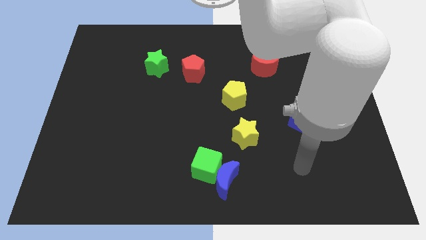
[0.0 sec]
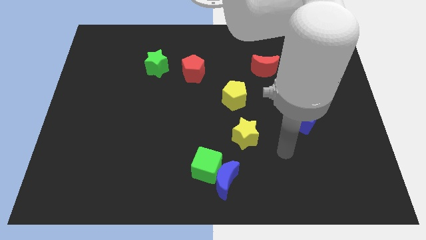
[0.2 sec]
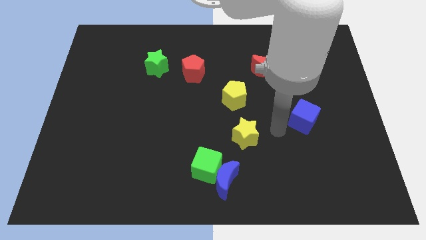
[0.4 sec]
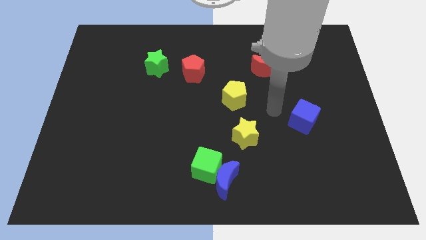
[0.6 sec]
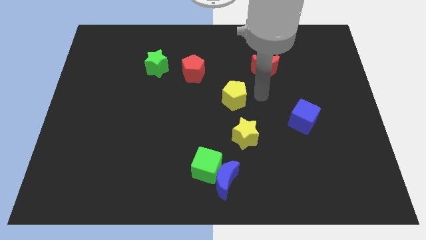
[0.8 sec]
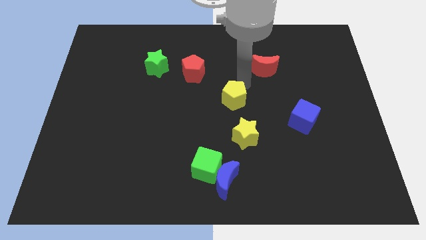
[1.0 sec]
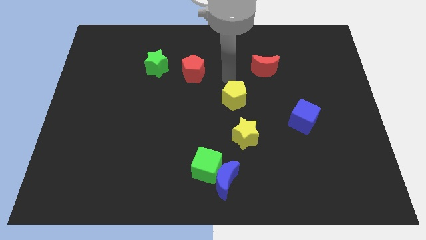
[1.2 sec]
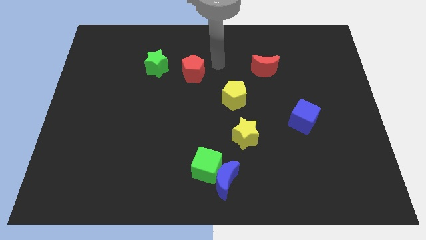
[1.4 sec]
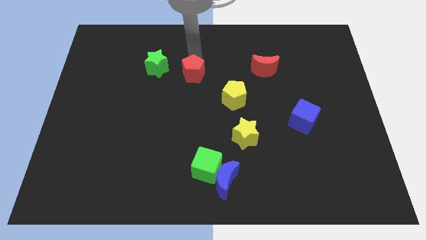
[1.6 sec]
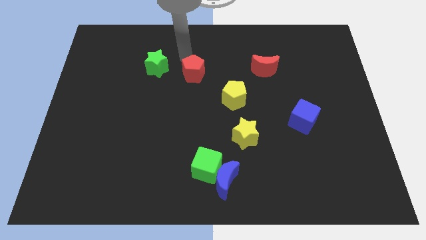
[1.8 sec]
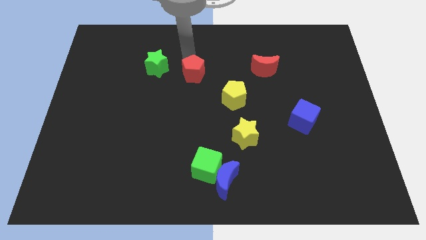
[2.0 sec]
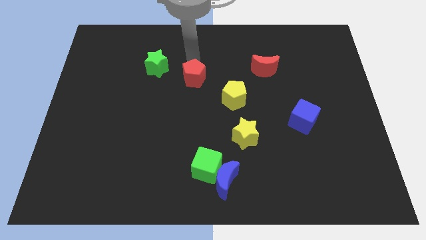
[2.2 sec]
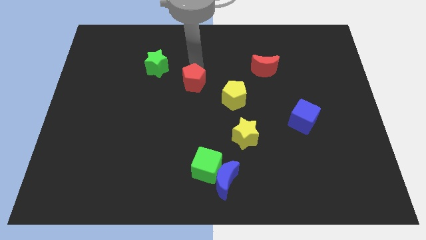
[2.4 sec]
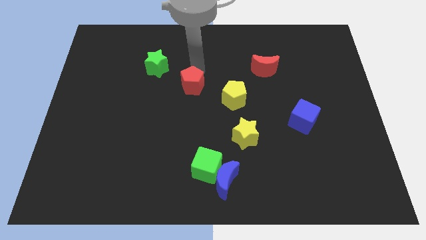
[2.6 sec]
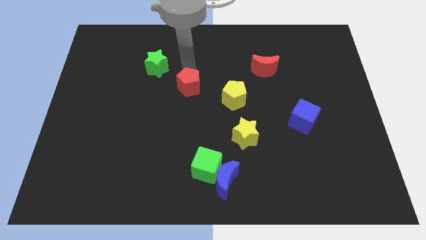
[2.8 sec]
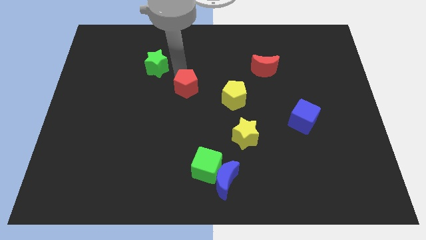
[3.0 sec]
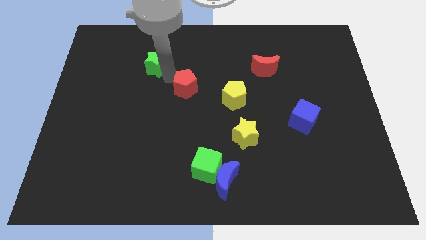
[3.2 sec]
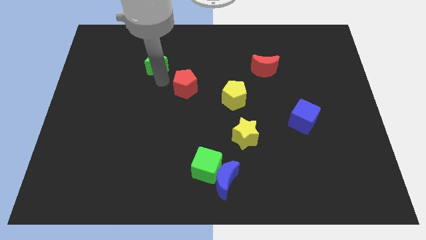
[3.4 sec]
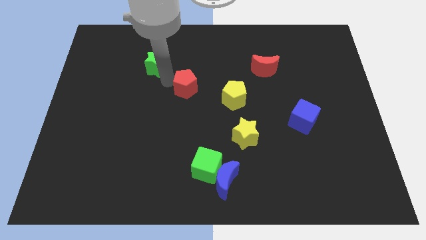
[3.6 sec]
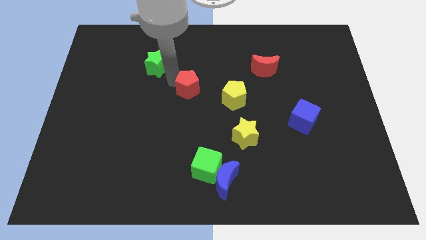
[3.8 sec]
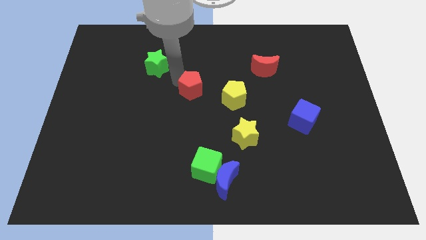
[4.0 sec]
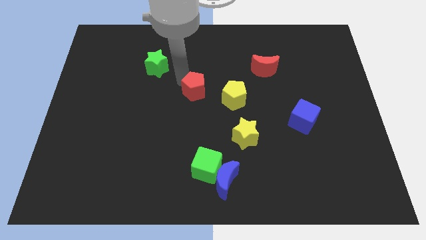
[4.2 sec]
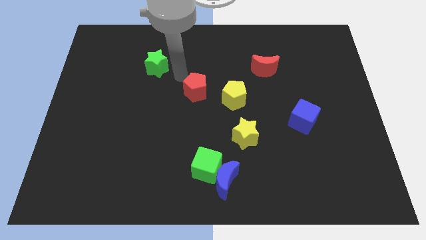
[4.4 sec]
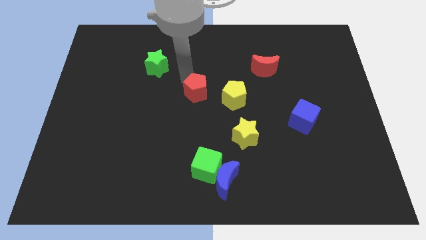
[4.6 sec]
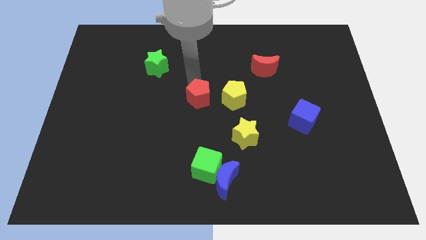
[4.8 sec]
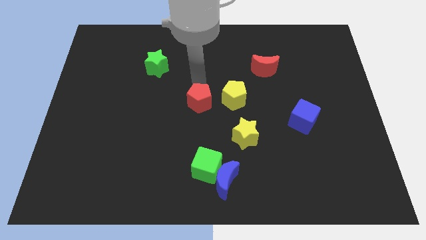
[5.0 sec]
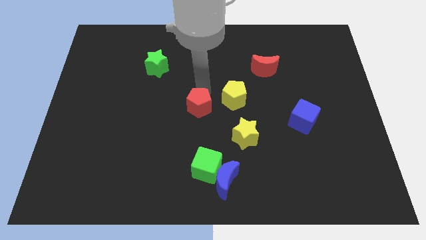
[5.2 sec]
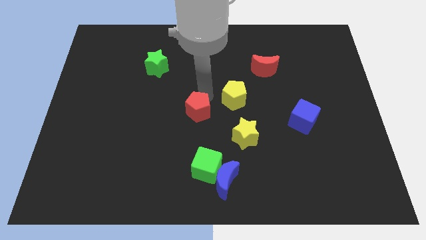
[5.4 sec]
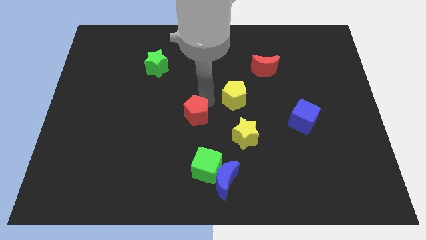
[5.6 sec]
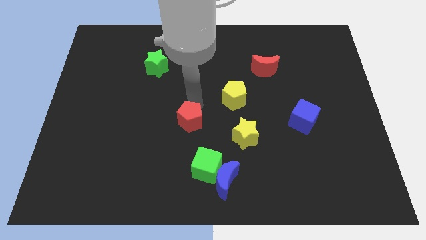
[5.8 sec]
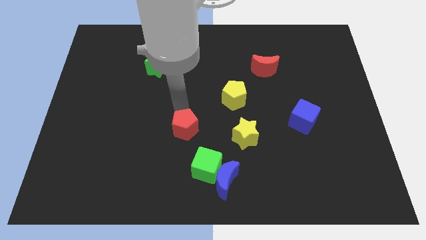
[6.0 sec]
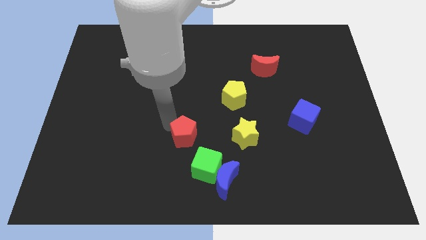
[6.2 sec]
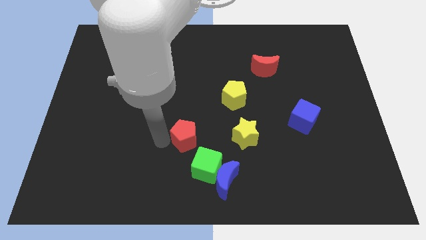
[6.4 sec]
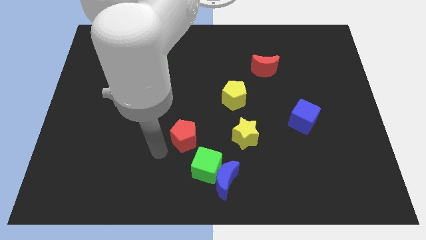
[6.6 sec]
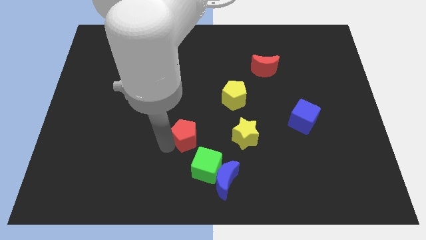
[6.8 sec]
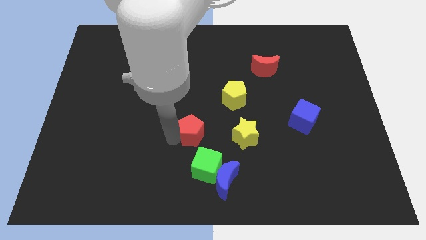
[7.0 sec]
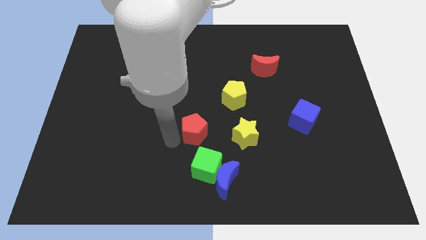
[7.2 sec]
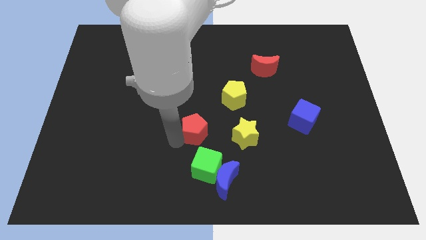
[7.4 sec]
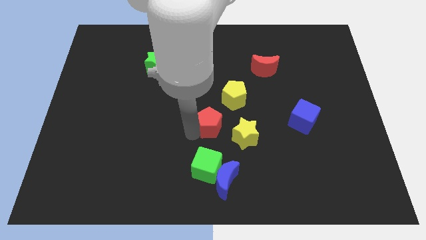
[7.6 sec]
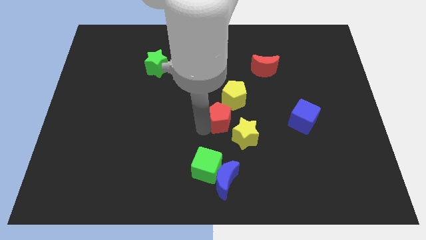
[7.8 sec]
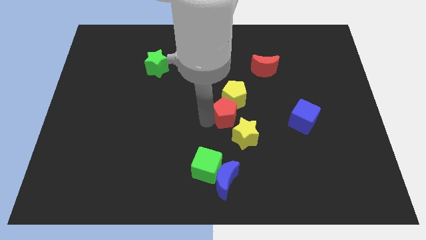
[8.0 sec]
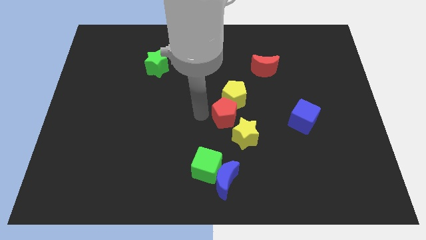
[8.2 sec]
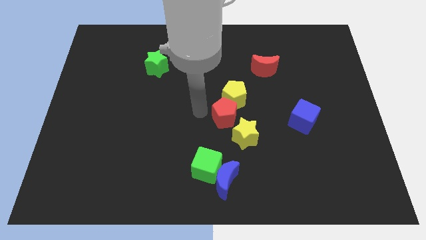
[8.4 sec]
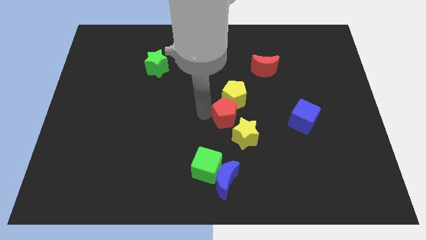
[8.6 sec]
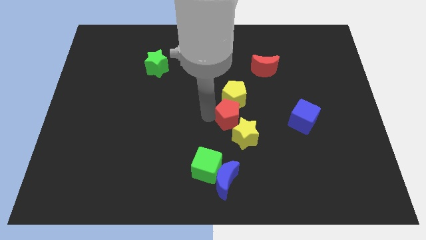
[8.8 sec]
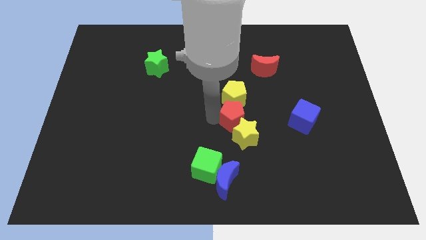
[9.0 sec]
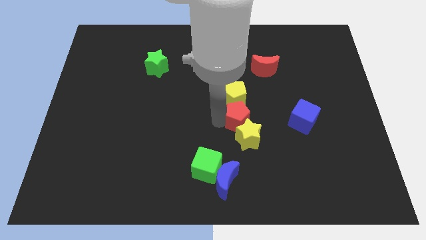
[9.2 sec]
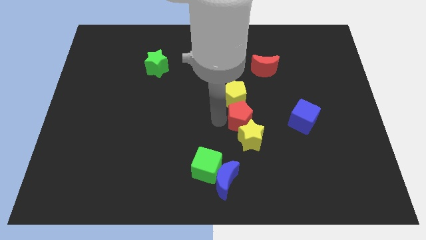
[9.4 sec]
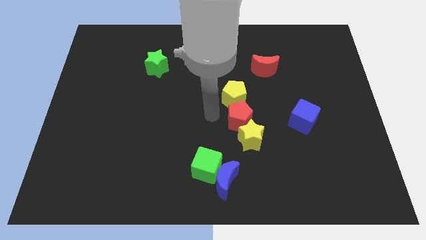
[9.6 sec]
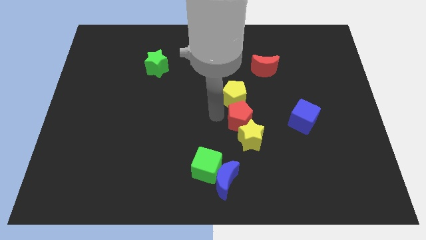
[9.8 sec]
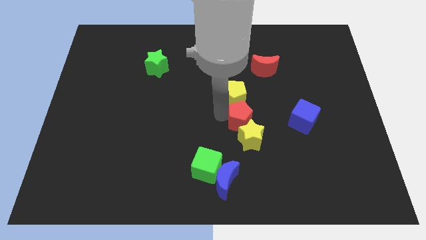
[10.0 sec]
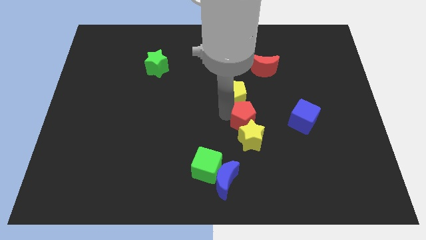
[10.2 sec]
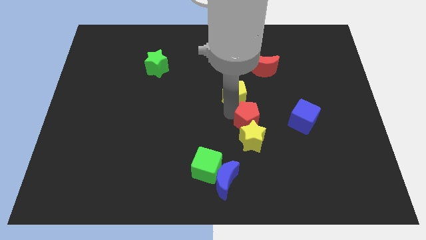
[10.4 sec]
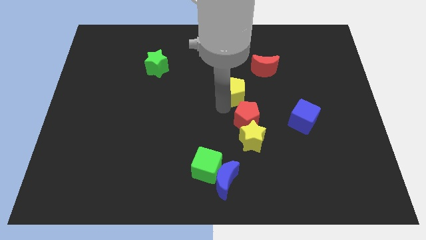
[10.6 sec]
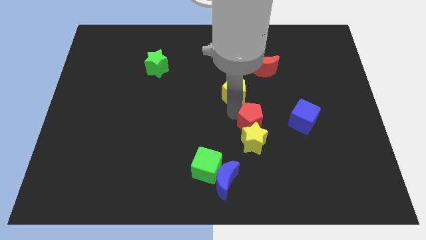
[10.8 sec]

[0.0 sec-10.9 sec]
move the red pentagon down and to the right diagonally

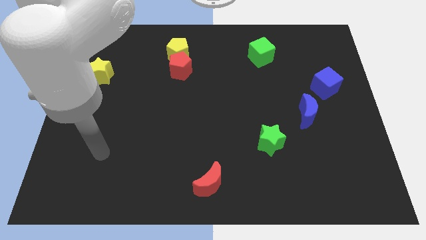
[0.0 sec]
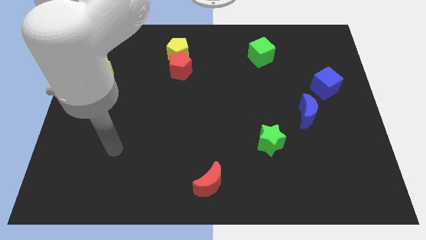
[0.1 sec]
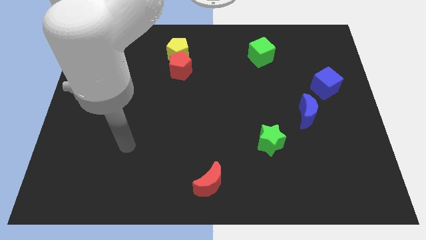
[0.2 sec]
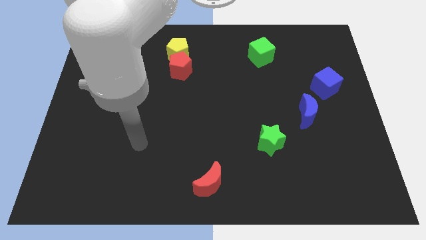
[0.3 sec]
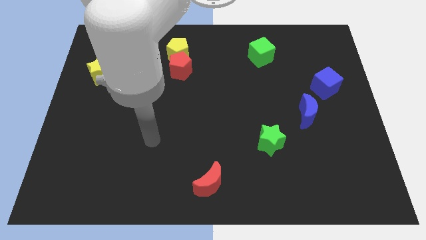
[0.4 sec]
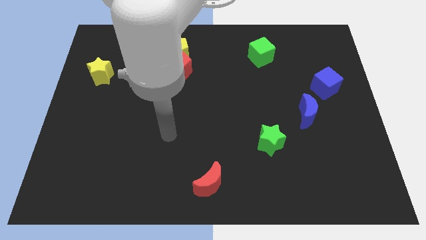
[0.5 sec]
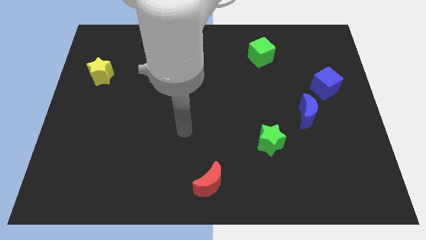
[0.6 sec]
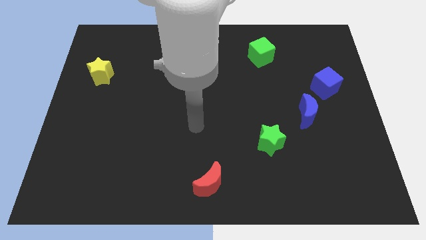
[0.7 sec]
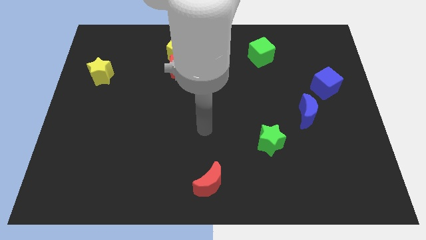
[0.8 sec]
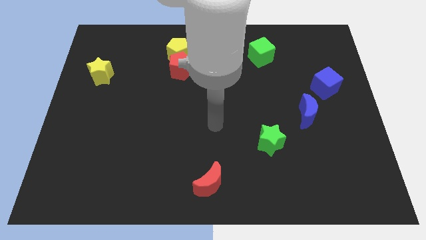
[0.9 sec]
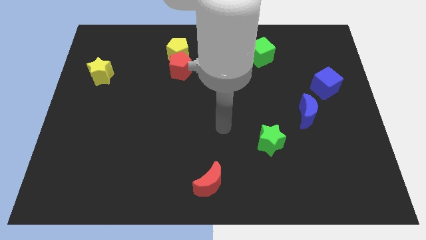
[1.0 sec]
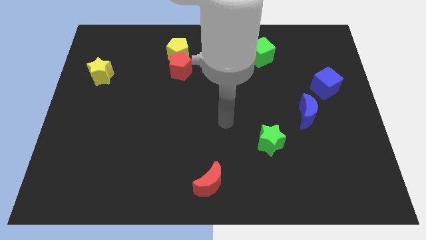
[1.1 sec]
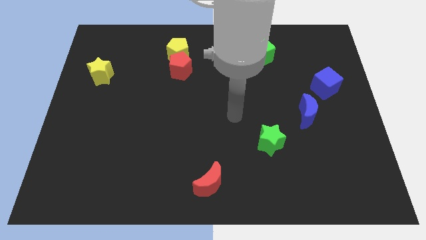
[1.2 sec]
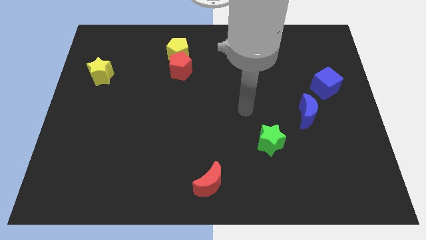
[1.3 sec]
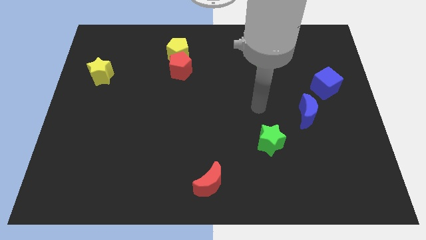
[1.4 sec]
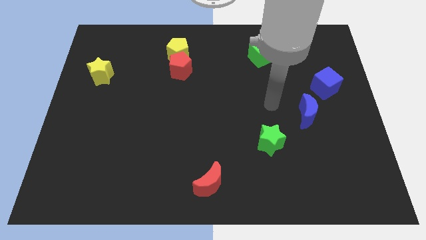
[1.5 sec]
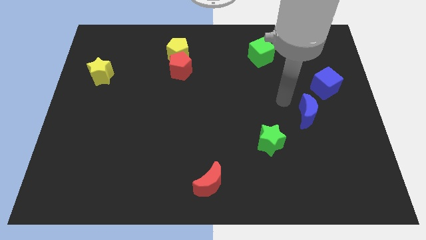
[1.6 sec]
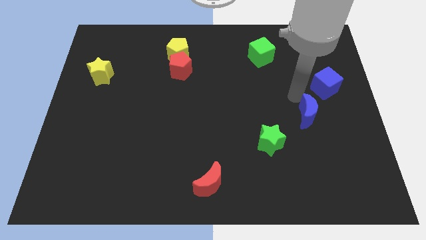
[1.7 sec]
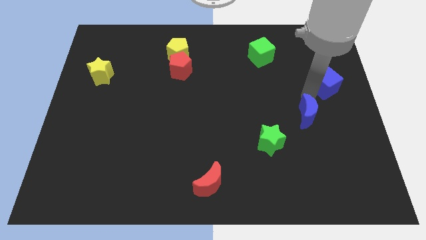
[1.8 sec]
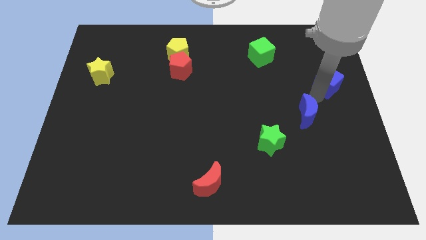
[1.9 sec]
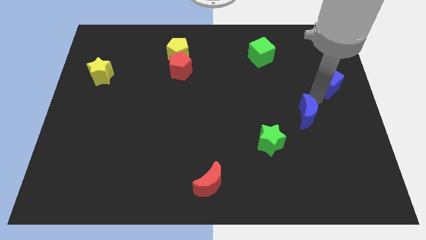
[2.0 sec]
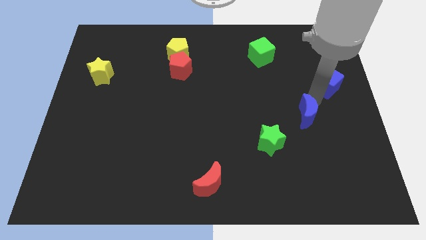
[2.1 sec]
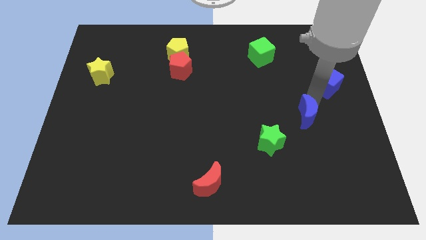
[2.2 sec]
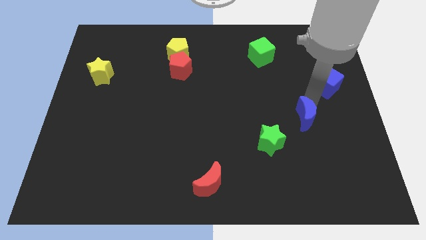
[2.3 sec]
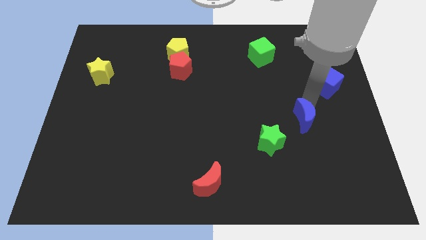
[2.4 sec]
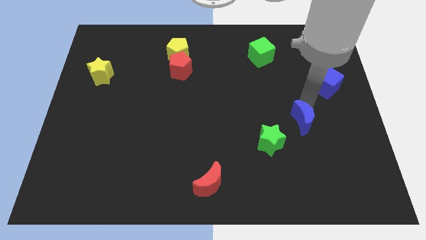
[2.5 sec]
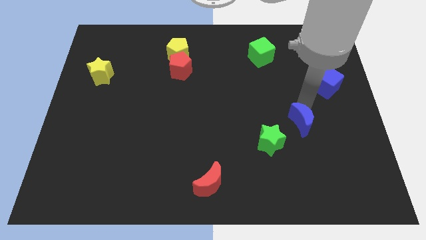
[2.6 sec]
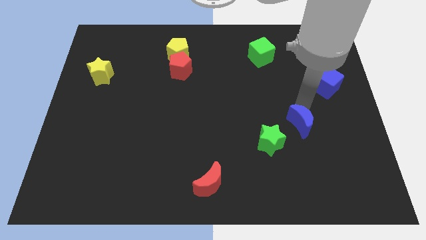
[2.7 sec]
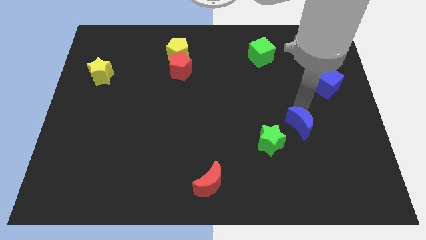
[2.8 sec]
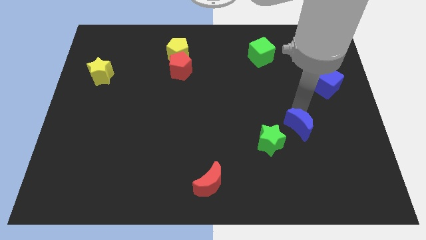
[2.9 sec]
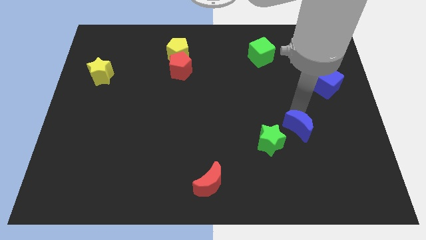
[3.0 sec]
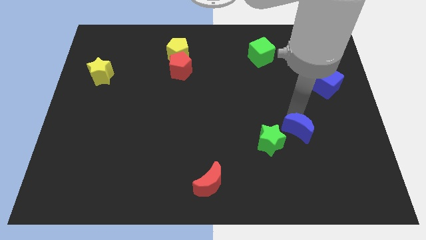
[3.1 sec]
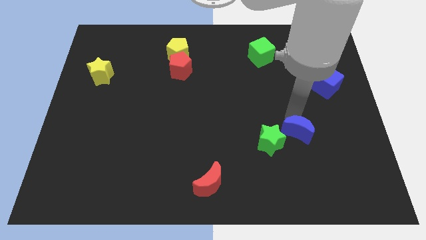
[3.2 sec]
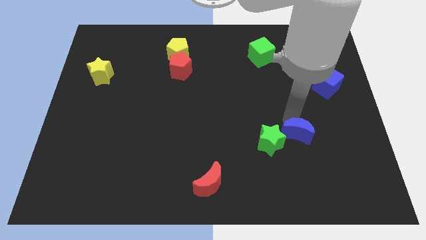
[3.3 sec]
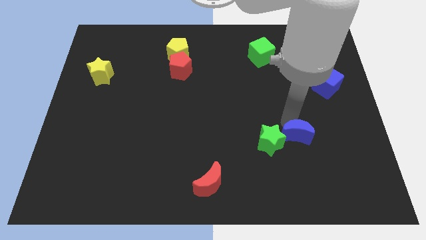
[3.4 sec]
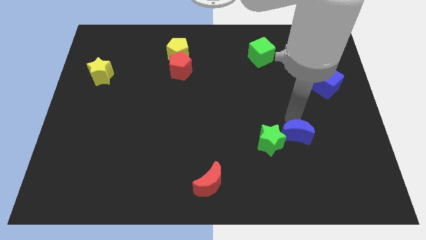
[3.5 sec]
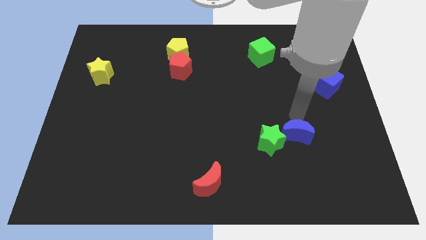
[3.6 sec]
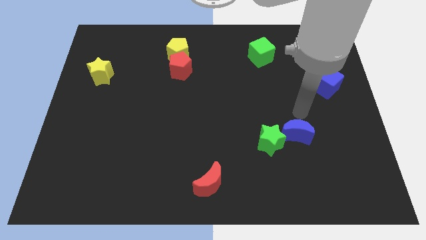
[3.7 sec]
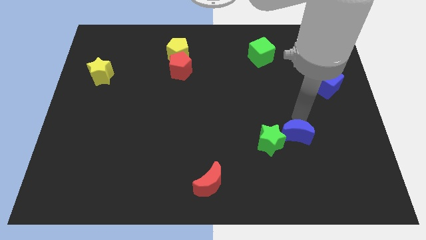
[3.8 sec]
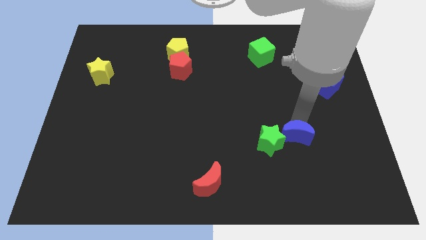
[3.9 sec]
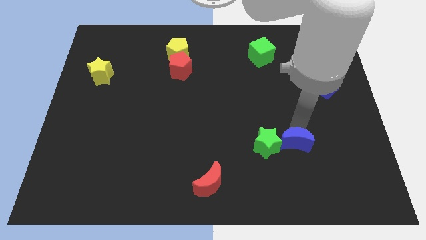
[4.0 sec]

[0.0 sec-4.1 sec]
move the blue moon downwards and then left a bit
